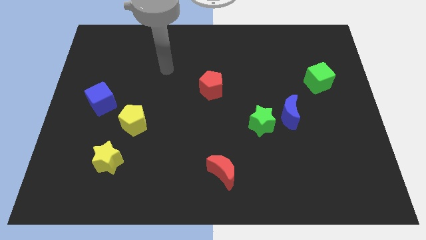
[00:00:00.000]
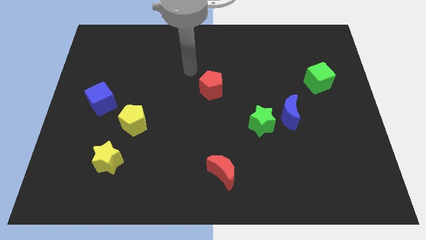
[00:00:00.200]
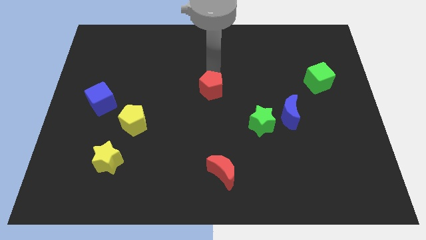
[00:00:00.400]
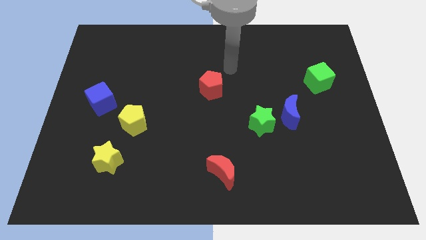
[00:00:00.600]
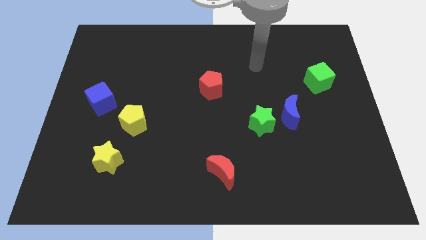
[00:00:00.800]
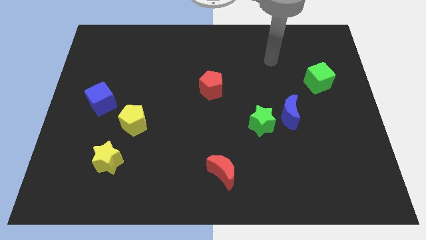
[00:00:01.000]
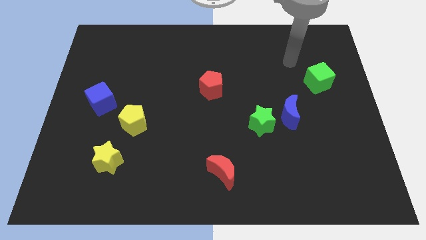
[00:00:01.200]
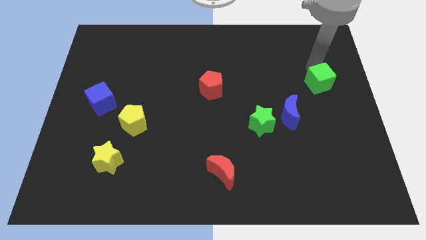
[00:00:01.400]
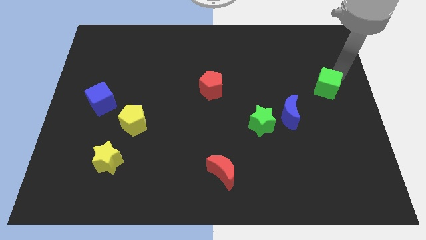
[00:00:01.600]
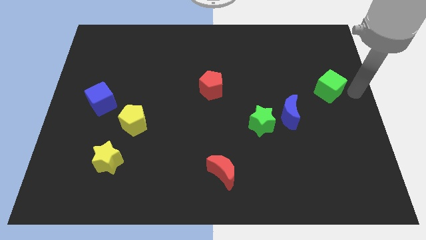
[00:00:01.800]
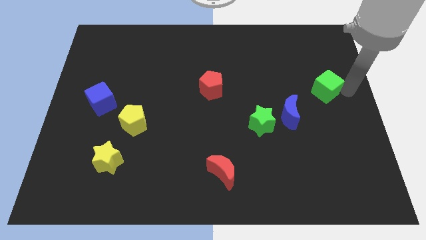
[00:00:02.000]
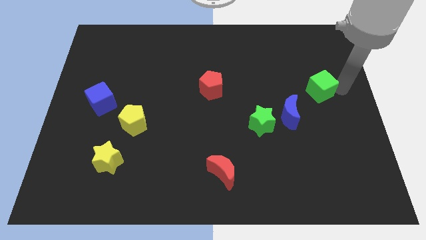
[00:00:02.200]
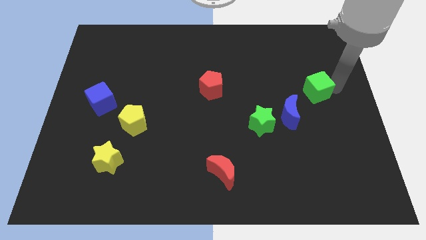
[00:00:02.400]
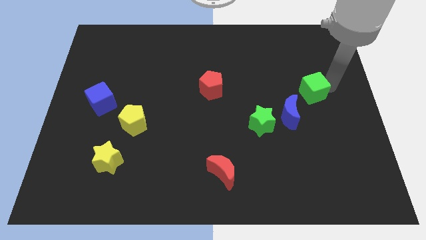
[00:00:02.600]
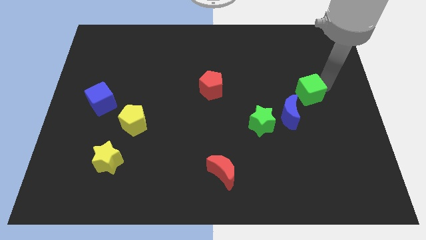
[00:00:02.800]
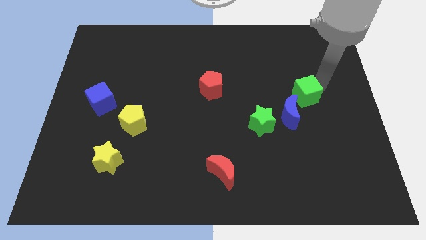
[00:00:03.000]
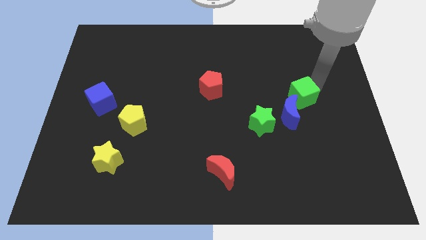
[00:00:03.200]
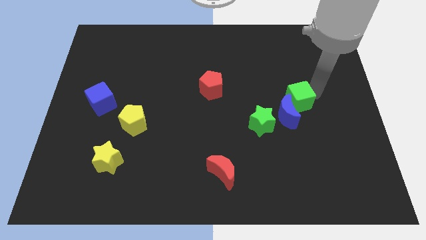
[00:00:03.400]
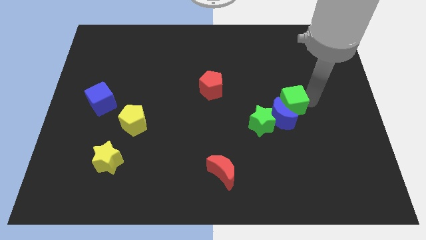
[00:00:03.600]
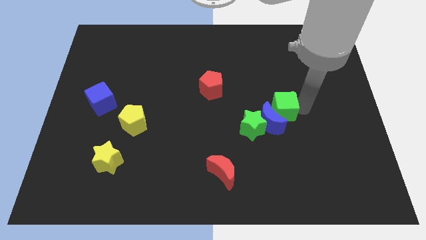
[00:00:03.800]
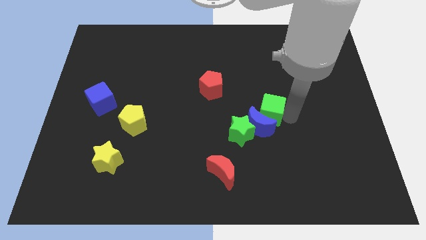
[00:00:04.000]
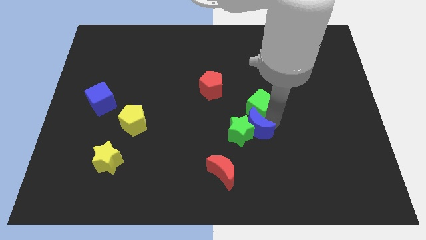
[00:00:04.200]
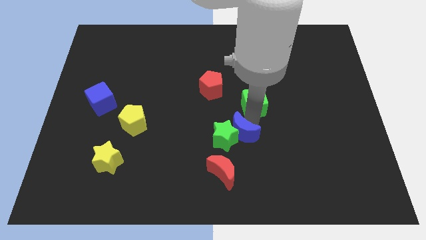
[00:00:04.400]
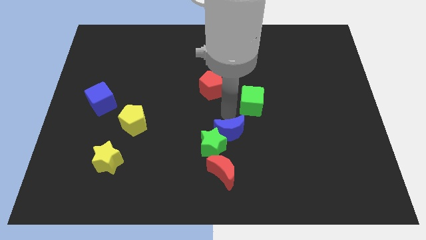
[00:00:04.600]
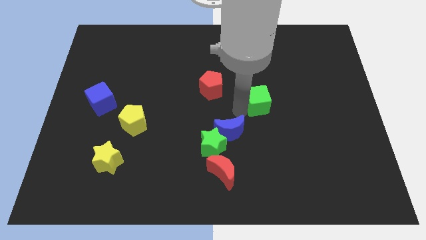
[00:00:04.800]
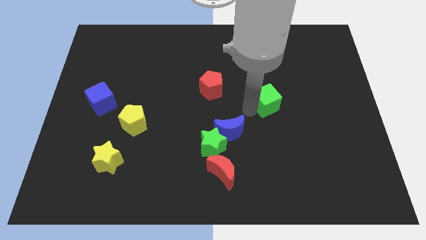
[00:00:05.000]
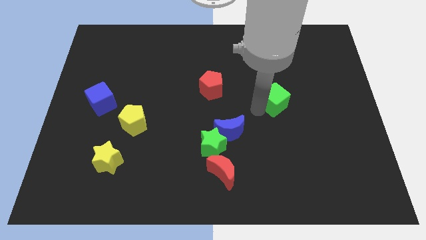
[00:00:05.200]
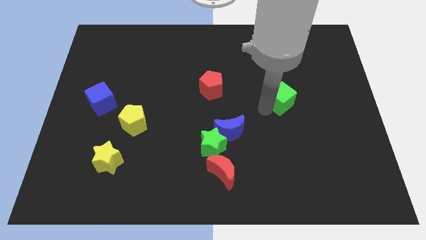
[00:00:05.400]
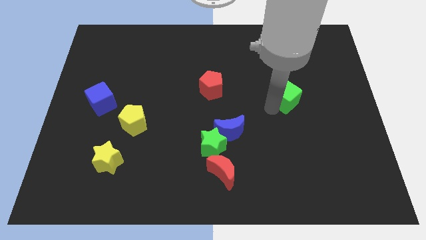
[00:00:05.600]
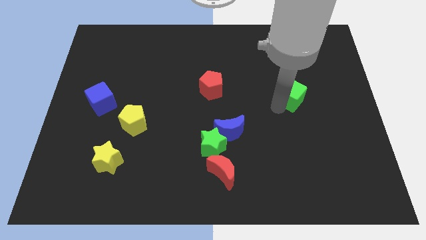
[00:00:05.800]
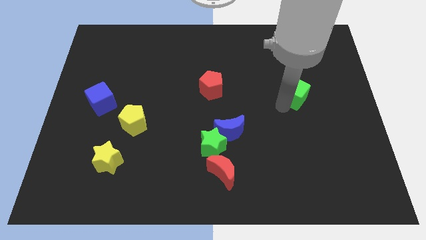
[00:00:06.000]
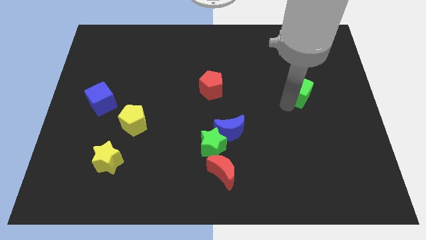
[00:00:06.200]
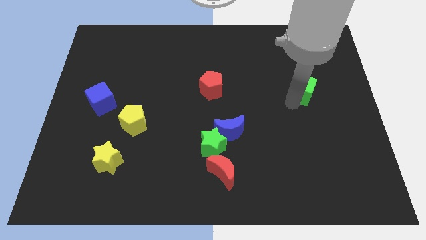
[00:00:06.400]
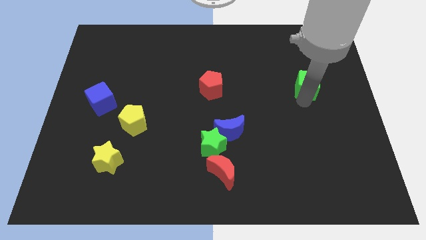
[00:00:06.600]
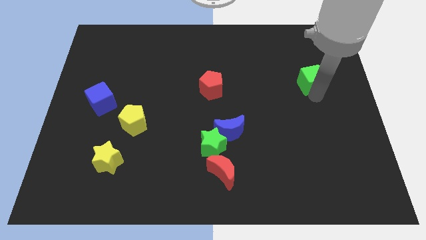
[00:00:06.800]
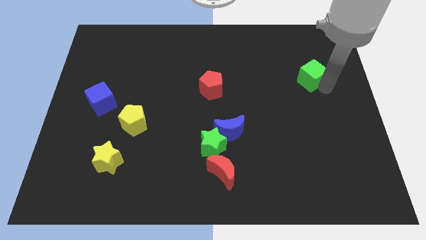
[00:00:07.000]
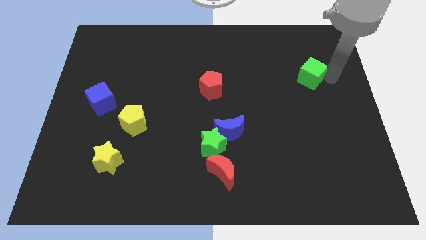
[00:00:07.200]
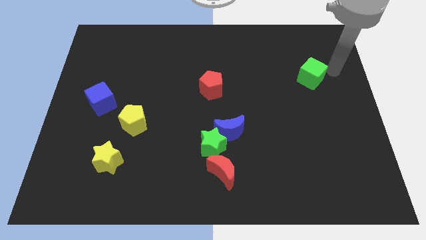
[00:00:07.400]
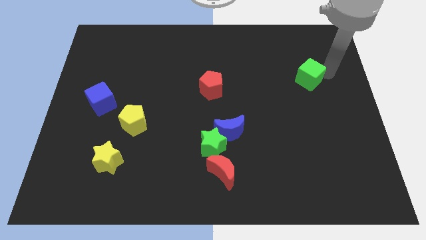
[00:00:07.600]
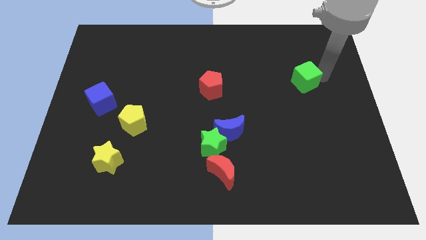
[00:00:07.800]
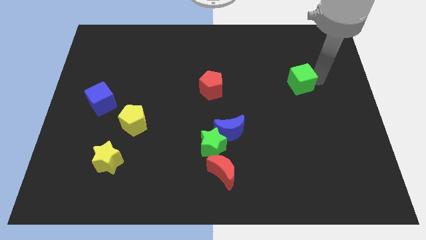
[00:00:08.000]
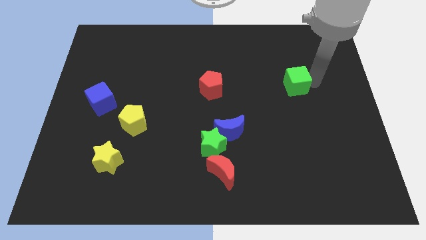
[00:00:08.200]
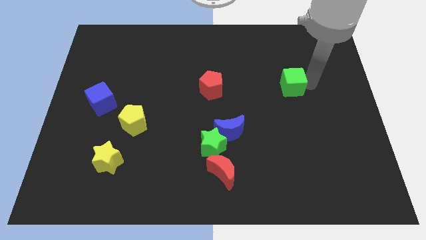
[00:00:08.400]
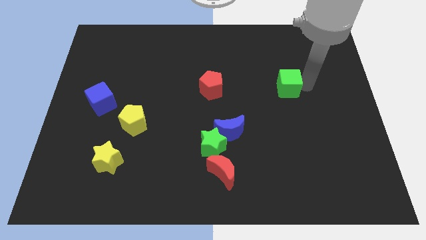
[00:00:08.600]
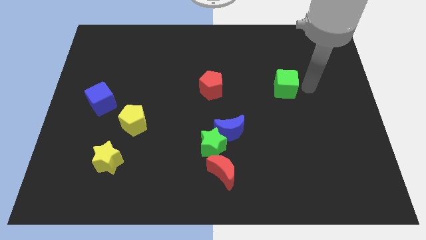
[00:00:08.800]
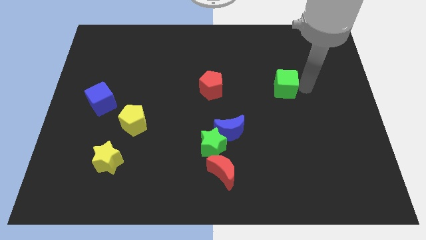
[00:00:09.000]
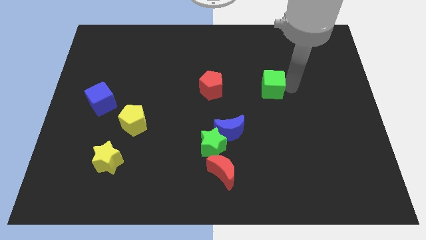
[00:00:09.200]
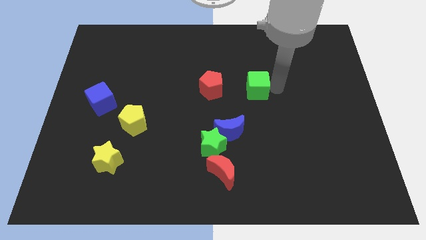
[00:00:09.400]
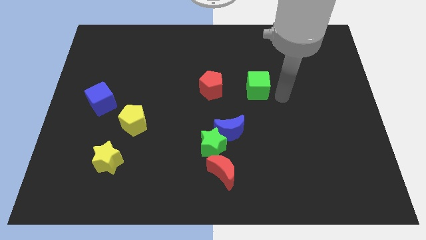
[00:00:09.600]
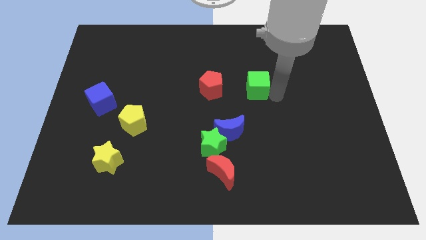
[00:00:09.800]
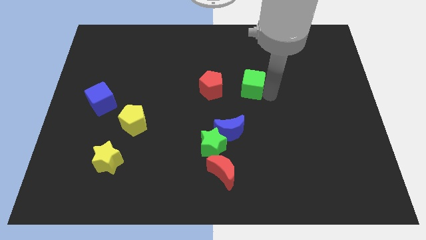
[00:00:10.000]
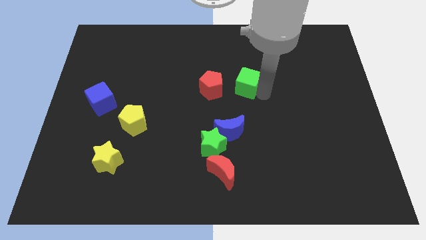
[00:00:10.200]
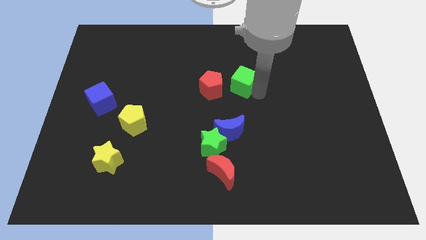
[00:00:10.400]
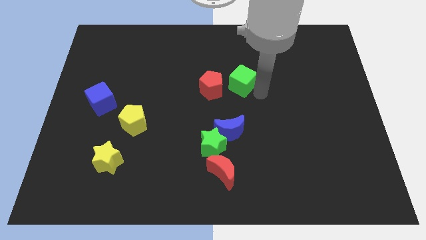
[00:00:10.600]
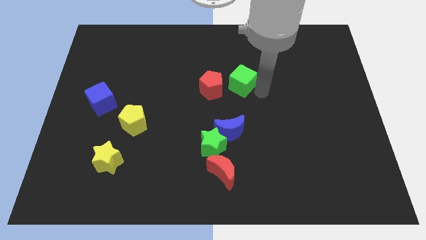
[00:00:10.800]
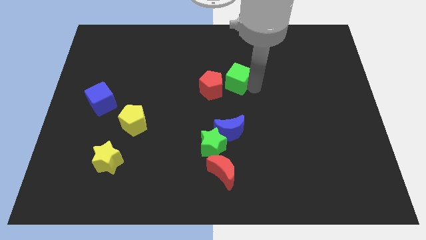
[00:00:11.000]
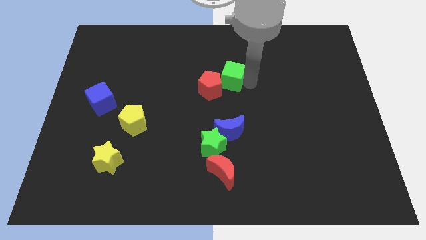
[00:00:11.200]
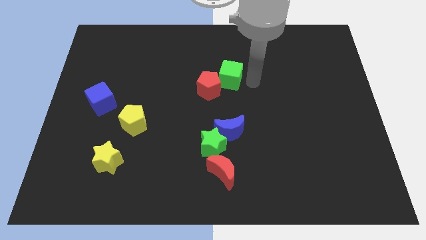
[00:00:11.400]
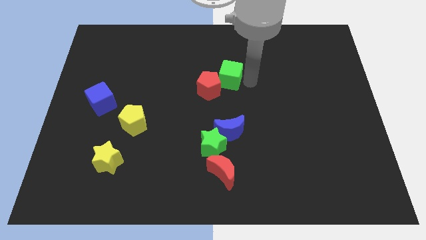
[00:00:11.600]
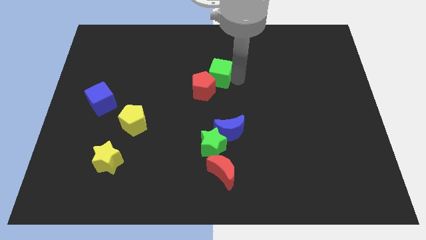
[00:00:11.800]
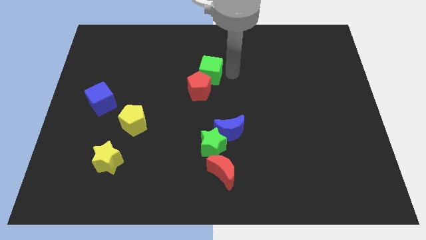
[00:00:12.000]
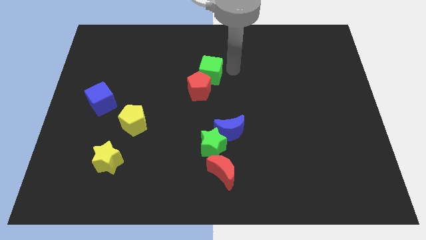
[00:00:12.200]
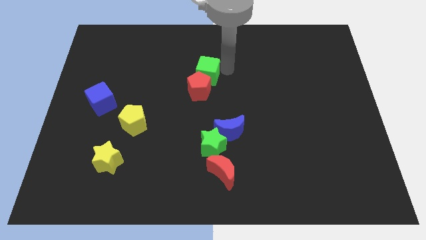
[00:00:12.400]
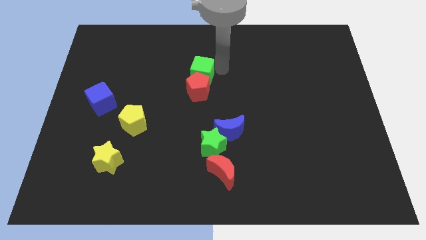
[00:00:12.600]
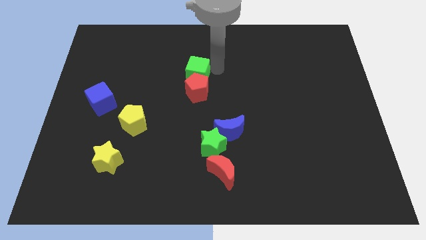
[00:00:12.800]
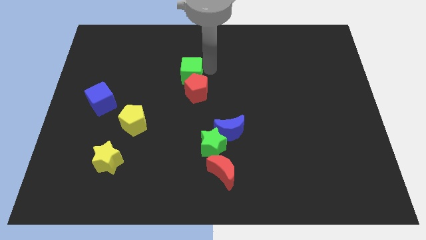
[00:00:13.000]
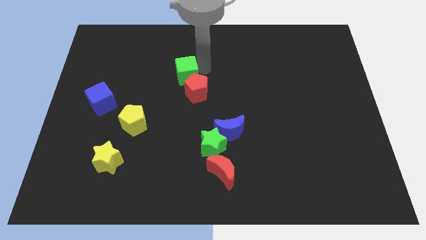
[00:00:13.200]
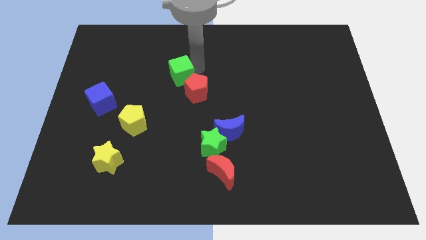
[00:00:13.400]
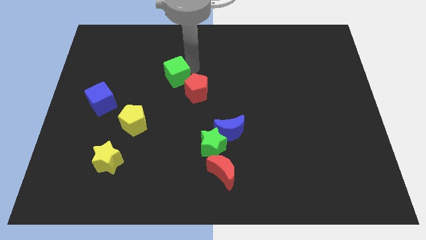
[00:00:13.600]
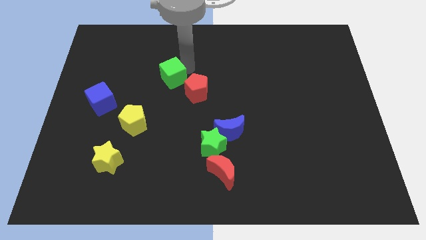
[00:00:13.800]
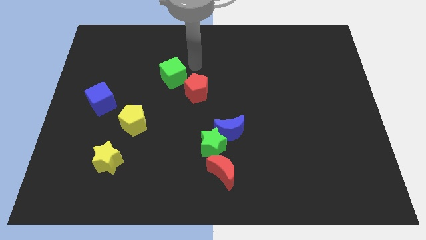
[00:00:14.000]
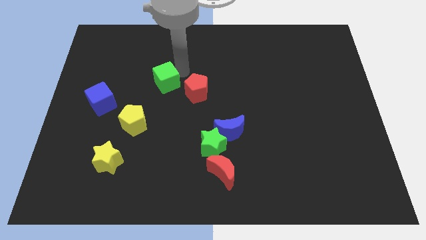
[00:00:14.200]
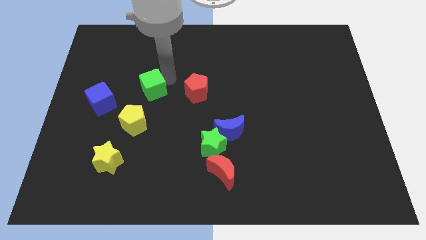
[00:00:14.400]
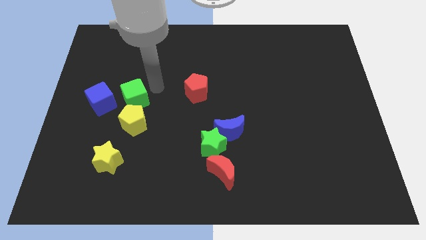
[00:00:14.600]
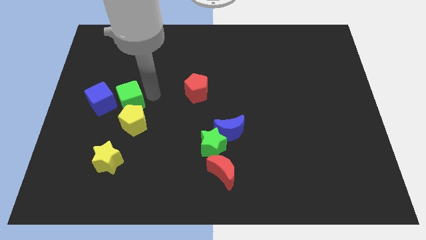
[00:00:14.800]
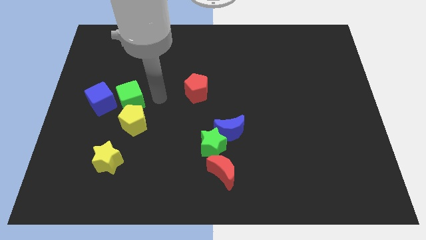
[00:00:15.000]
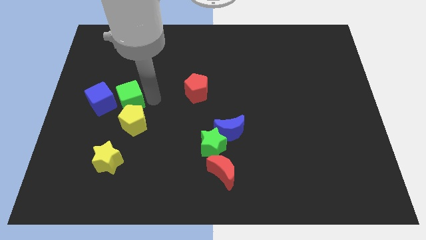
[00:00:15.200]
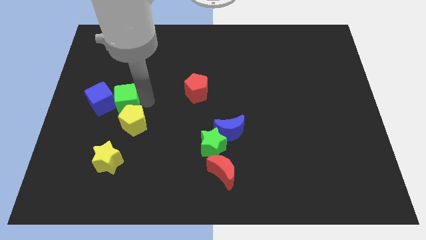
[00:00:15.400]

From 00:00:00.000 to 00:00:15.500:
slide the green cube next to the blue cube

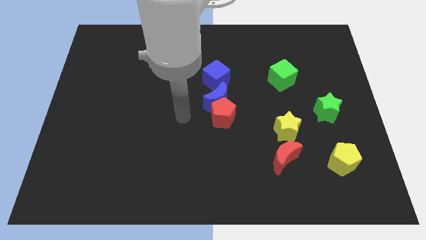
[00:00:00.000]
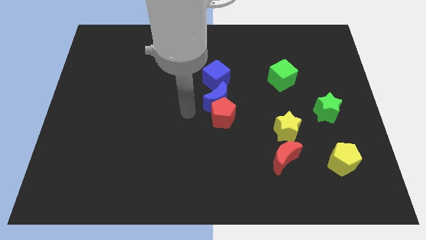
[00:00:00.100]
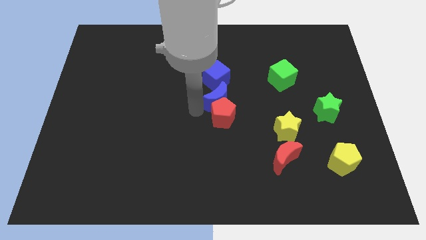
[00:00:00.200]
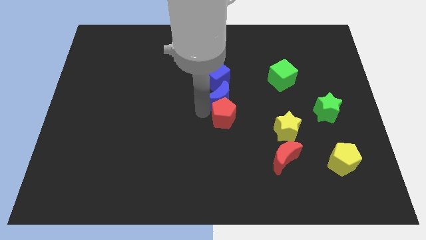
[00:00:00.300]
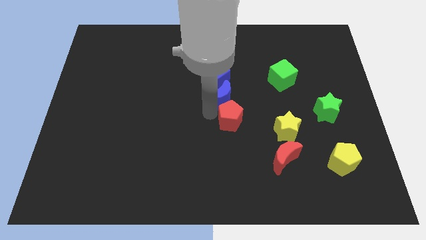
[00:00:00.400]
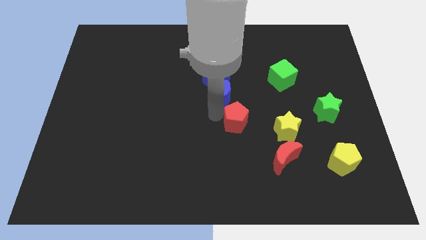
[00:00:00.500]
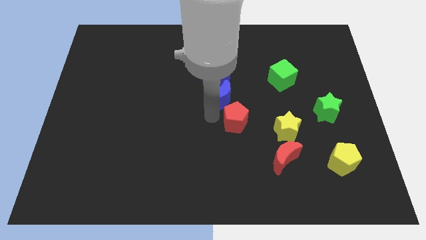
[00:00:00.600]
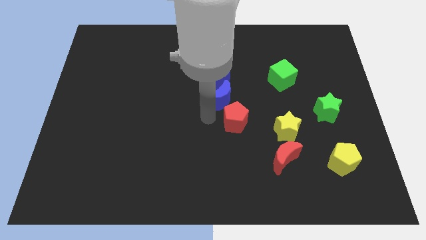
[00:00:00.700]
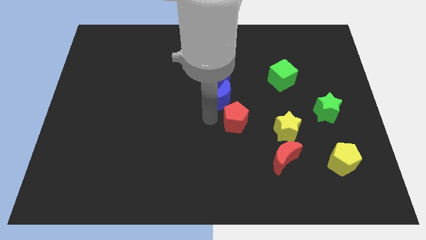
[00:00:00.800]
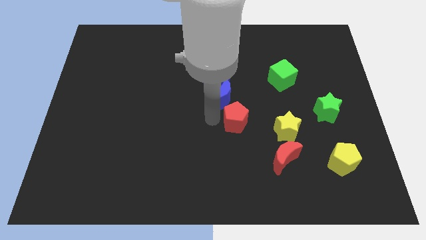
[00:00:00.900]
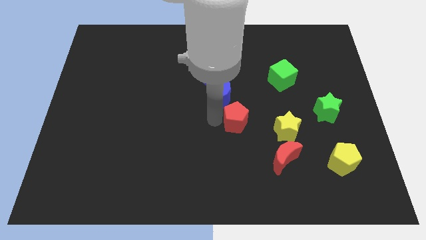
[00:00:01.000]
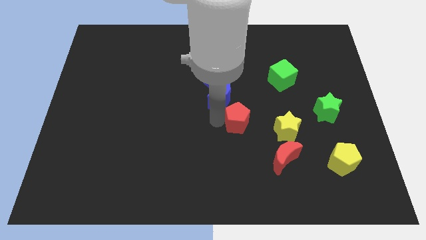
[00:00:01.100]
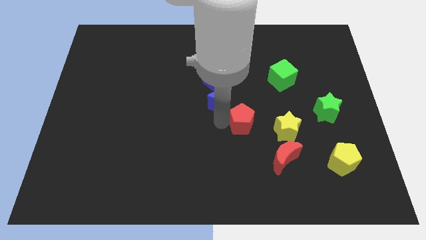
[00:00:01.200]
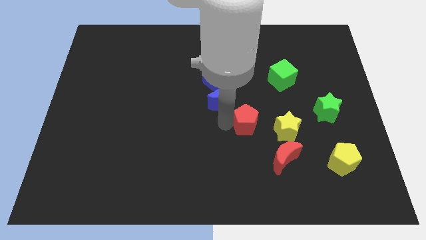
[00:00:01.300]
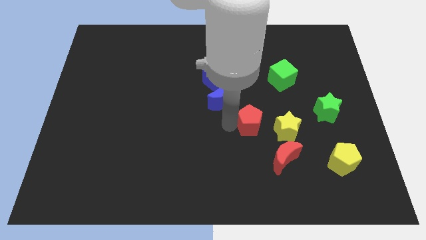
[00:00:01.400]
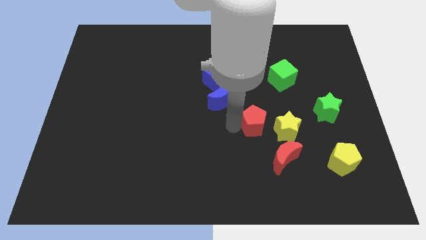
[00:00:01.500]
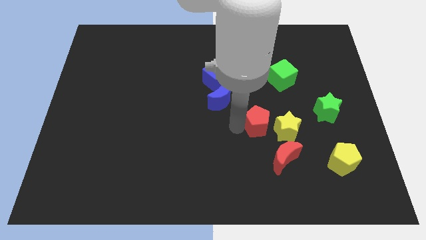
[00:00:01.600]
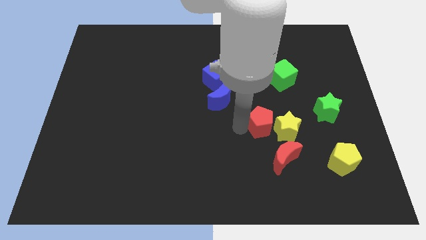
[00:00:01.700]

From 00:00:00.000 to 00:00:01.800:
put the red pentagon next to the yellow star
